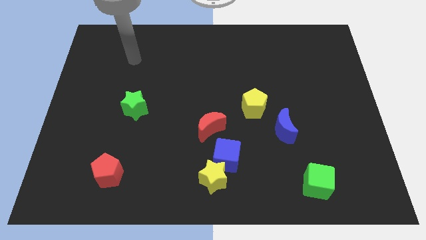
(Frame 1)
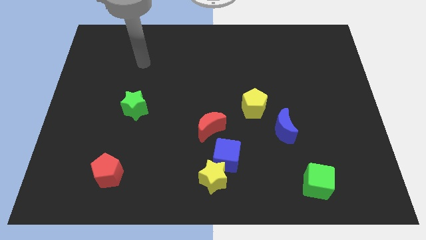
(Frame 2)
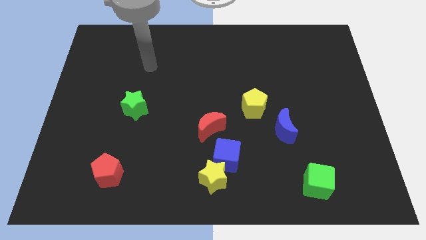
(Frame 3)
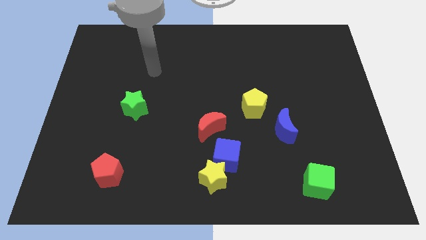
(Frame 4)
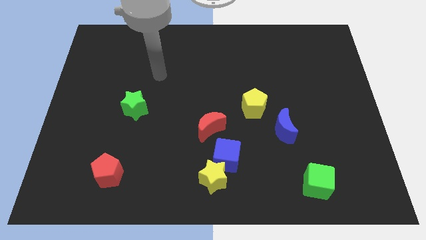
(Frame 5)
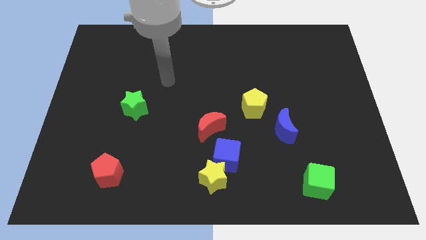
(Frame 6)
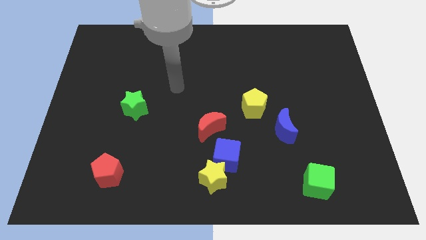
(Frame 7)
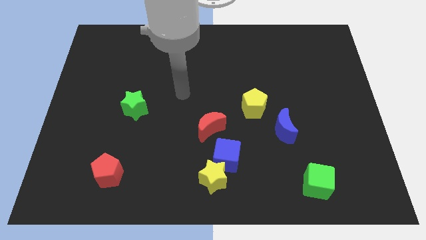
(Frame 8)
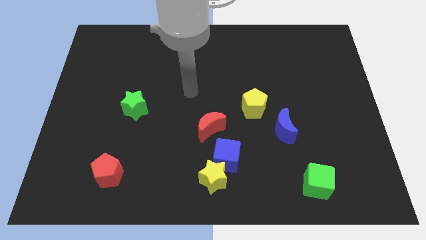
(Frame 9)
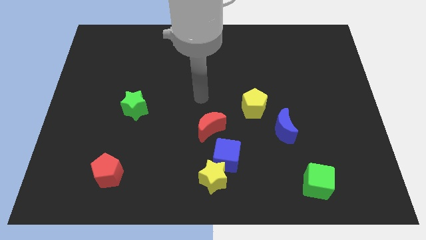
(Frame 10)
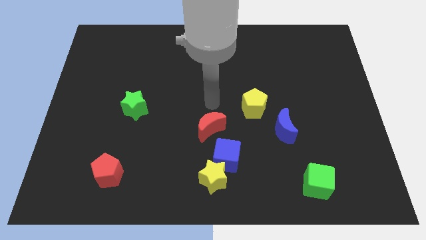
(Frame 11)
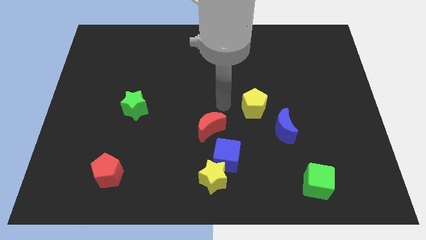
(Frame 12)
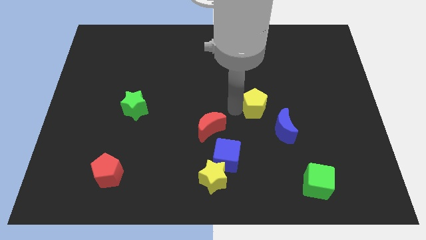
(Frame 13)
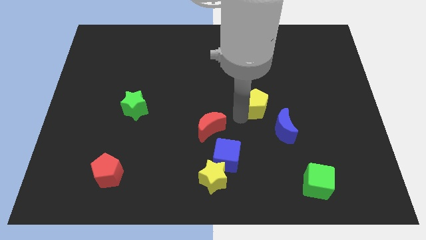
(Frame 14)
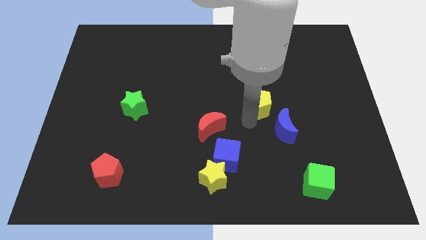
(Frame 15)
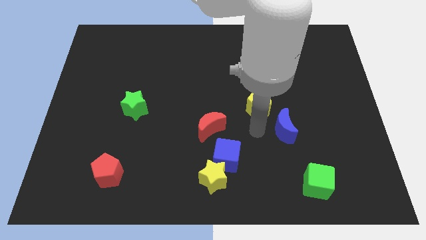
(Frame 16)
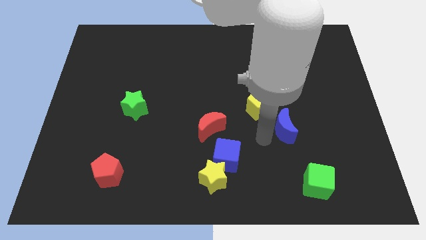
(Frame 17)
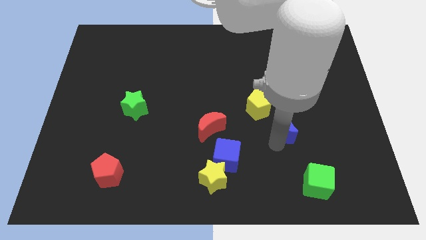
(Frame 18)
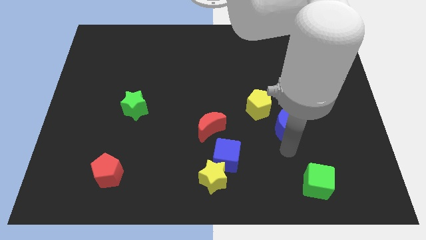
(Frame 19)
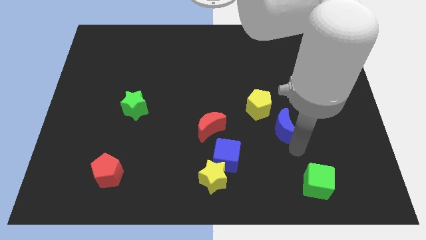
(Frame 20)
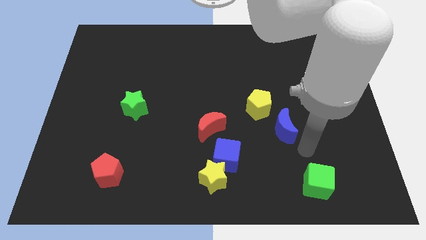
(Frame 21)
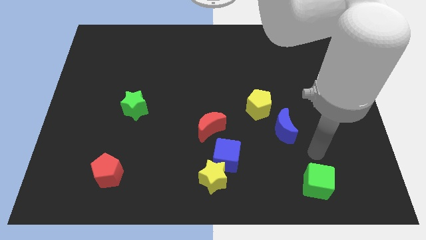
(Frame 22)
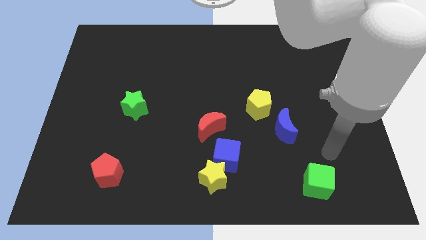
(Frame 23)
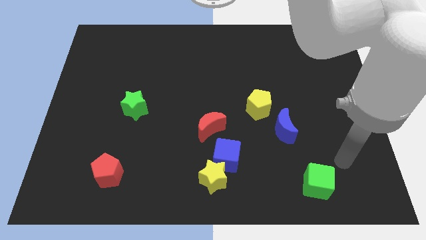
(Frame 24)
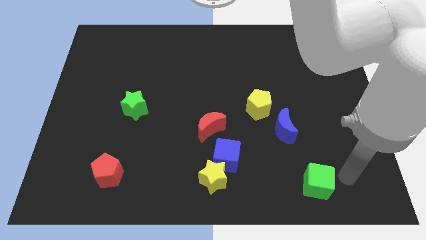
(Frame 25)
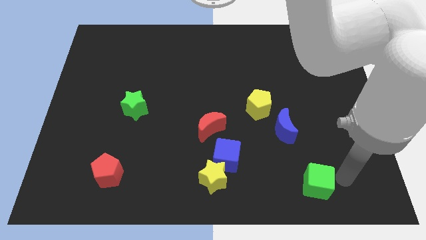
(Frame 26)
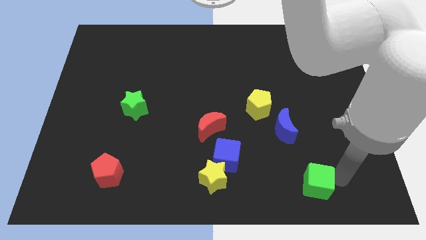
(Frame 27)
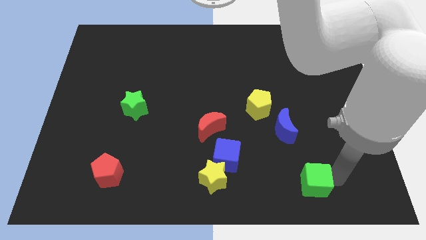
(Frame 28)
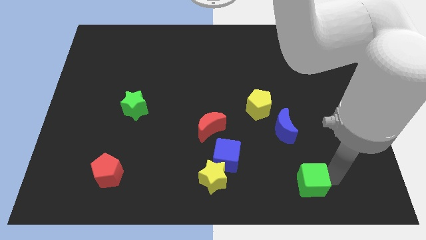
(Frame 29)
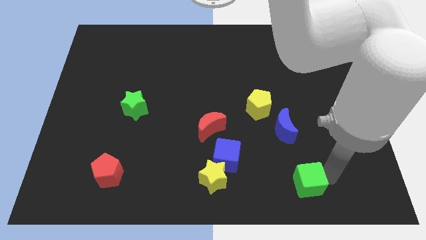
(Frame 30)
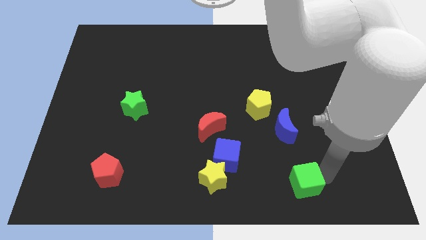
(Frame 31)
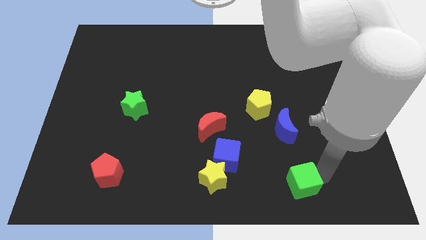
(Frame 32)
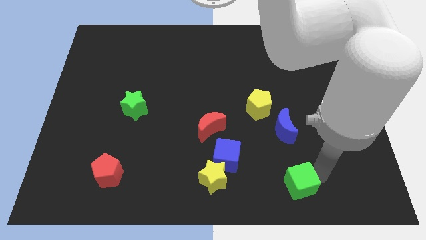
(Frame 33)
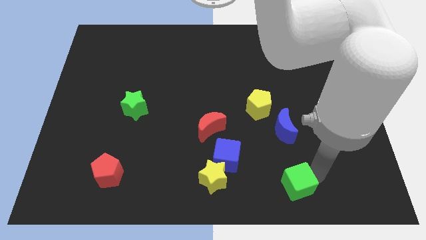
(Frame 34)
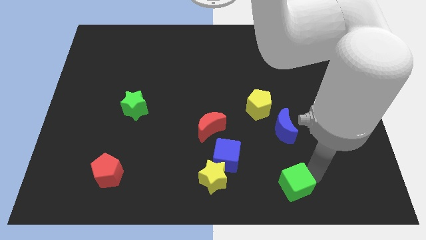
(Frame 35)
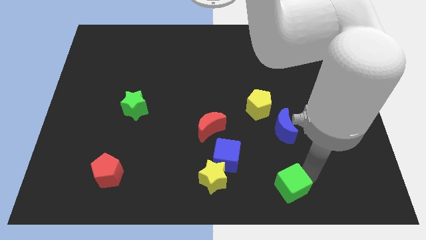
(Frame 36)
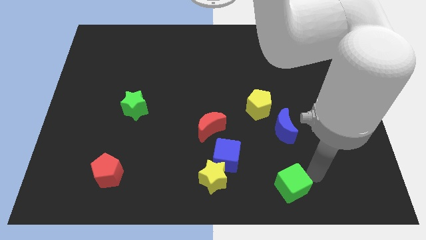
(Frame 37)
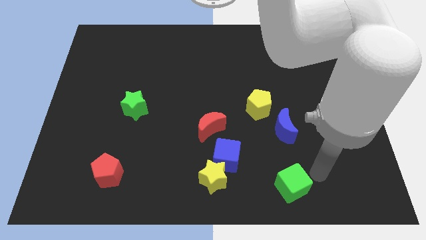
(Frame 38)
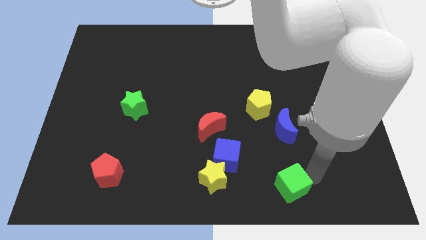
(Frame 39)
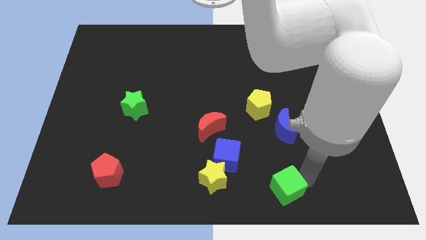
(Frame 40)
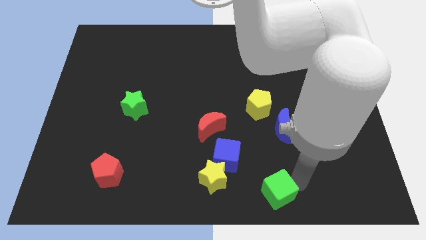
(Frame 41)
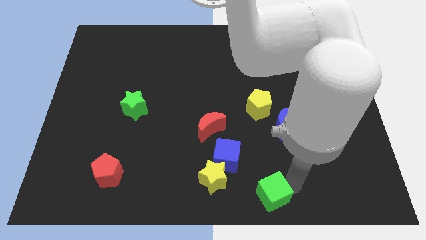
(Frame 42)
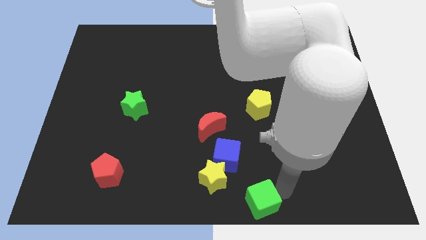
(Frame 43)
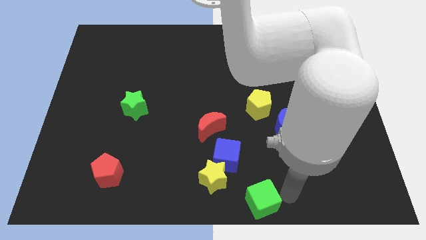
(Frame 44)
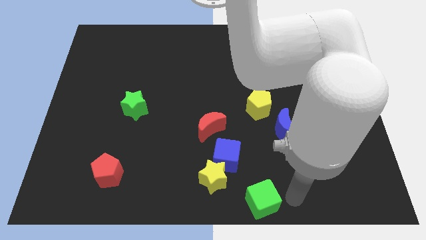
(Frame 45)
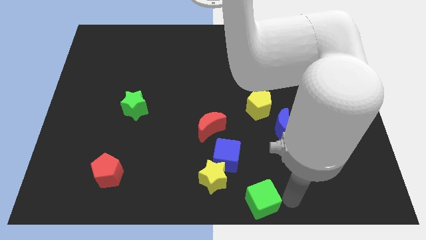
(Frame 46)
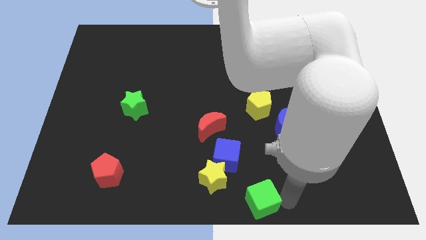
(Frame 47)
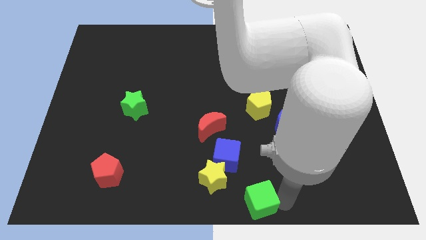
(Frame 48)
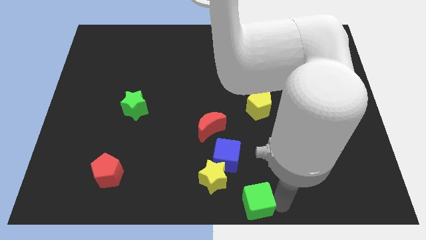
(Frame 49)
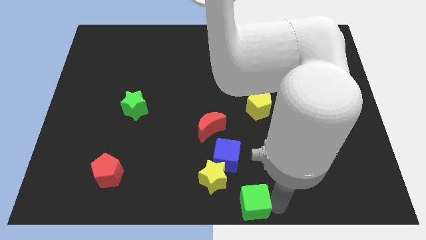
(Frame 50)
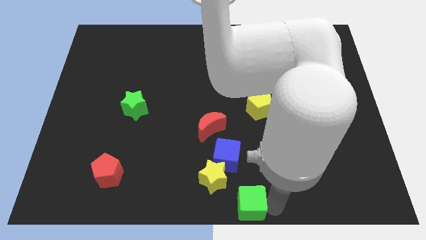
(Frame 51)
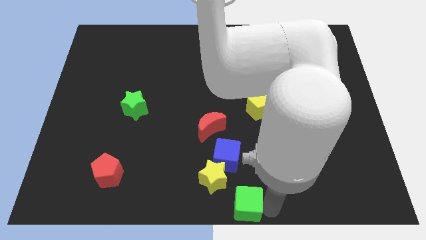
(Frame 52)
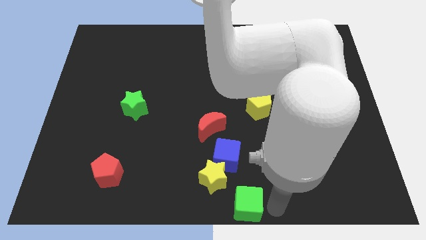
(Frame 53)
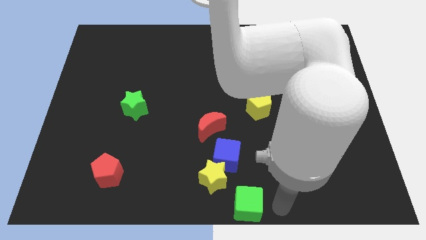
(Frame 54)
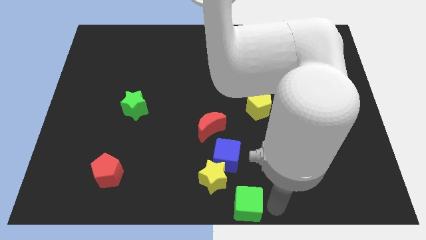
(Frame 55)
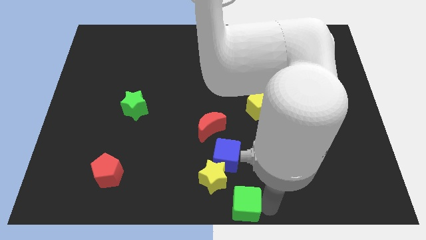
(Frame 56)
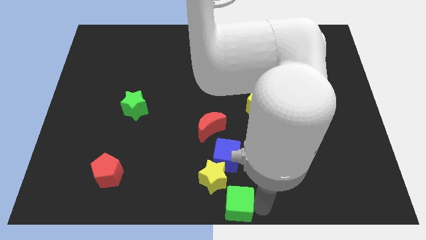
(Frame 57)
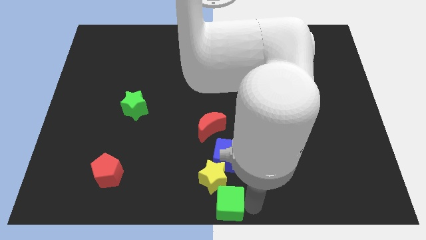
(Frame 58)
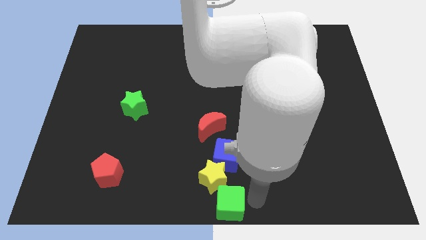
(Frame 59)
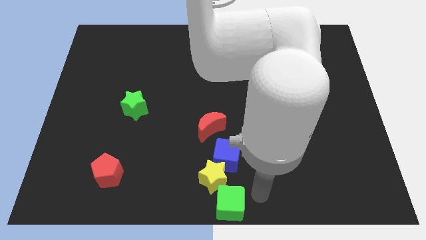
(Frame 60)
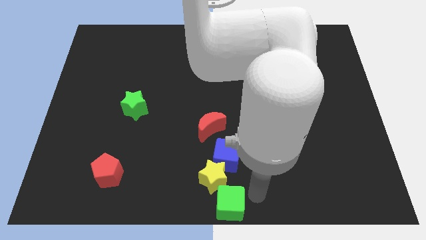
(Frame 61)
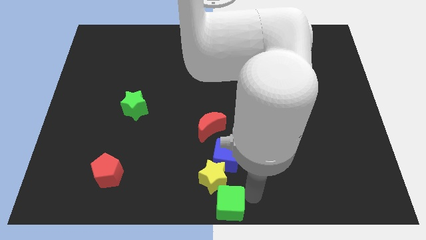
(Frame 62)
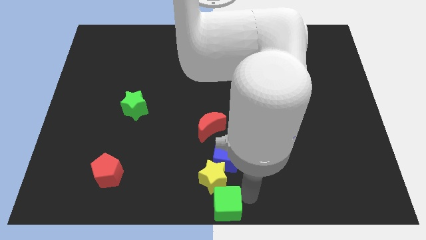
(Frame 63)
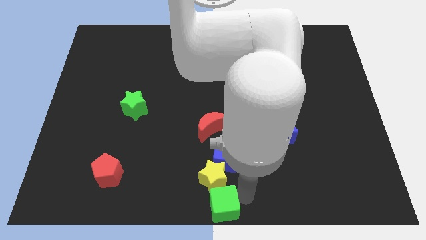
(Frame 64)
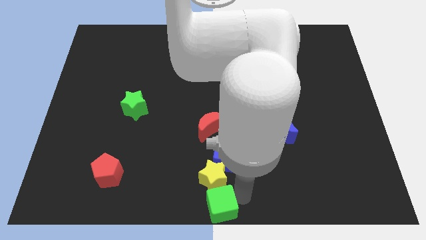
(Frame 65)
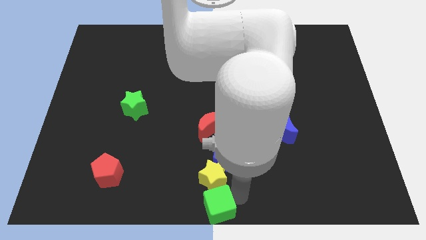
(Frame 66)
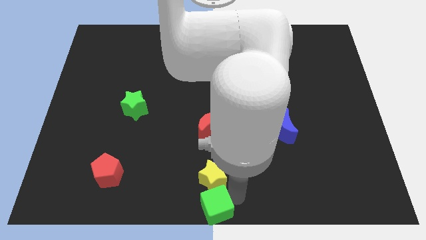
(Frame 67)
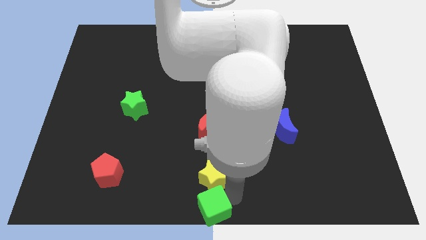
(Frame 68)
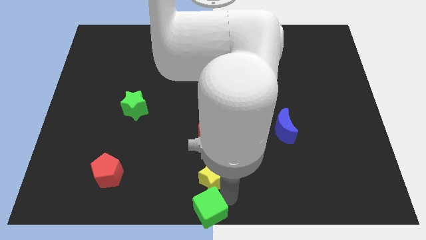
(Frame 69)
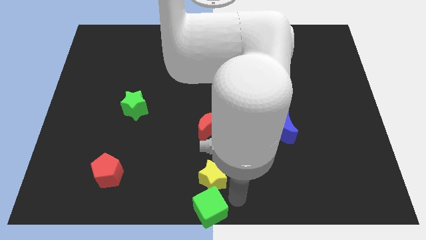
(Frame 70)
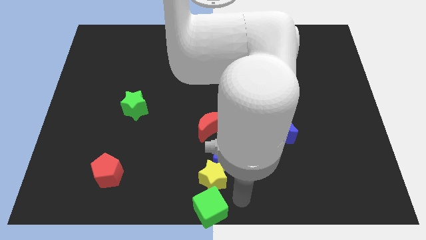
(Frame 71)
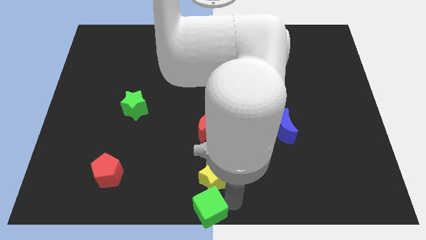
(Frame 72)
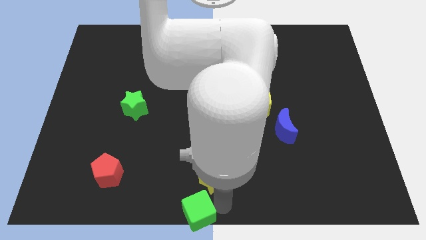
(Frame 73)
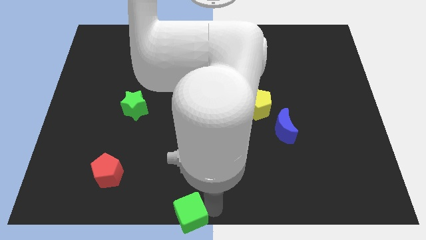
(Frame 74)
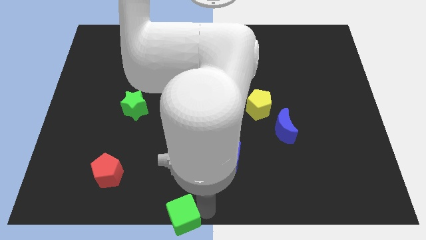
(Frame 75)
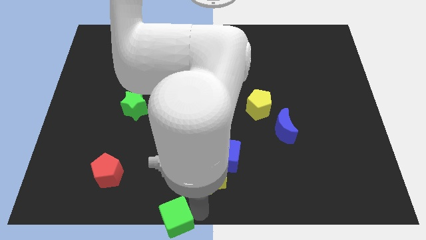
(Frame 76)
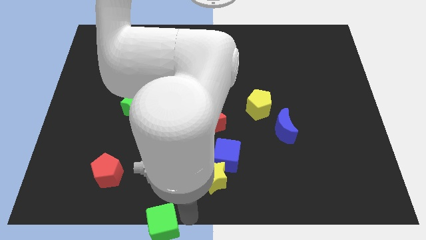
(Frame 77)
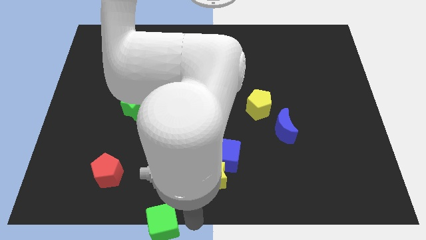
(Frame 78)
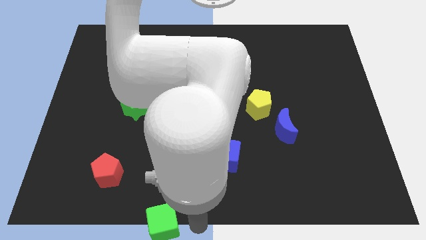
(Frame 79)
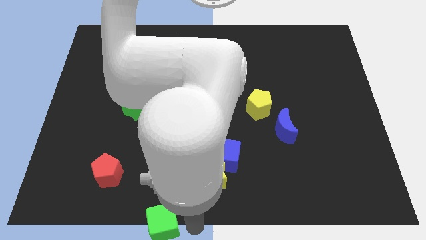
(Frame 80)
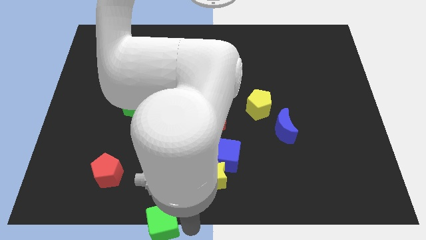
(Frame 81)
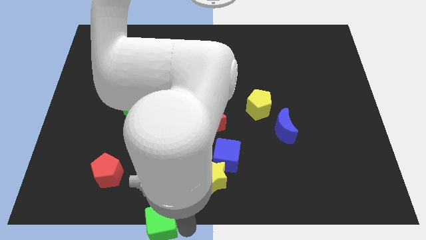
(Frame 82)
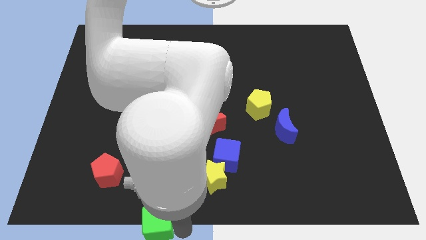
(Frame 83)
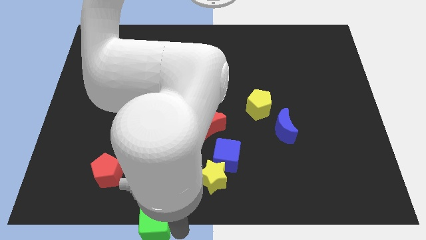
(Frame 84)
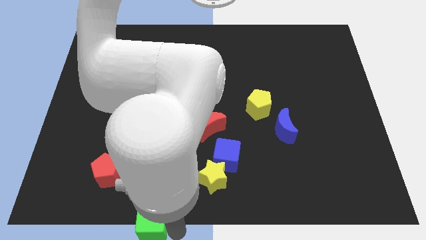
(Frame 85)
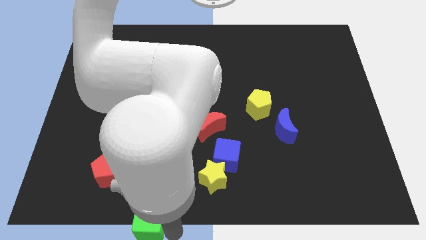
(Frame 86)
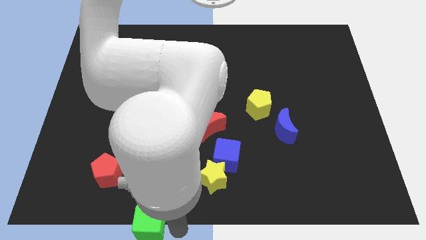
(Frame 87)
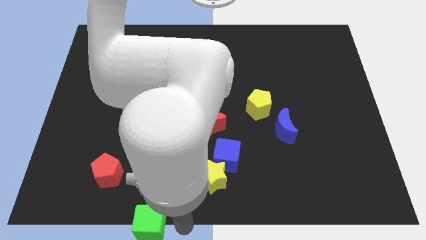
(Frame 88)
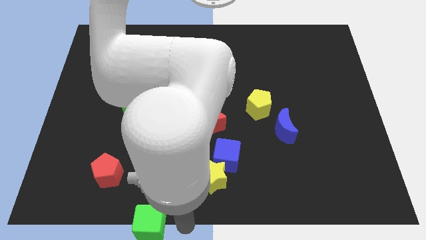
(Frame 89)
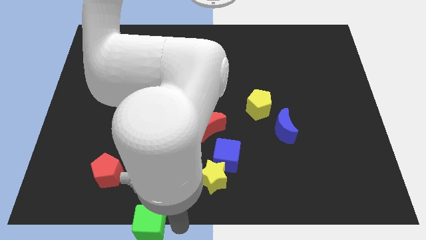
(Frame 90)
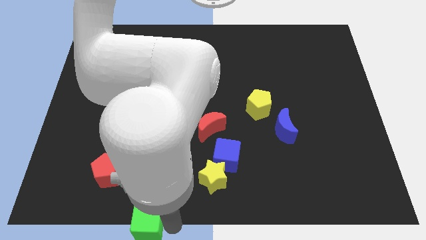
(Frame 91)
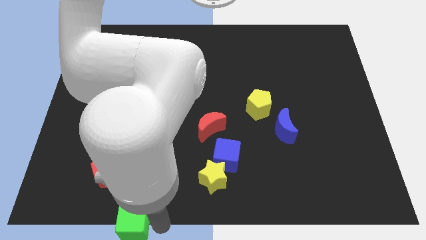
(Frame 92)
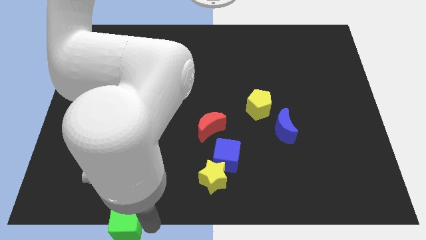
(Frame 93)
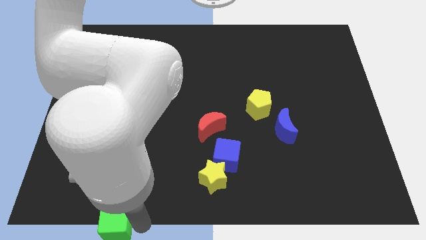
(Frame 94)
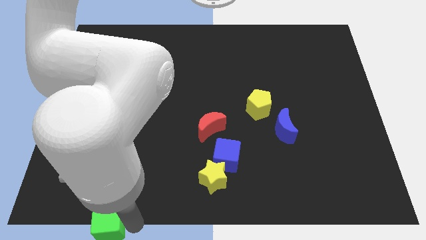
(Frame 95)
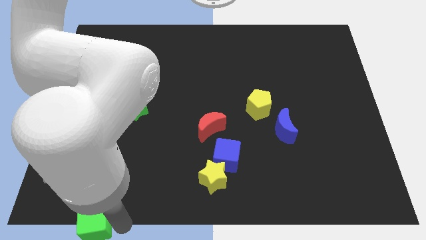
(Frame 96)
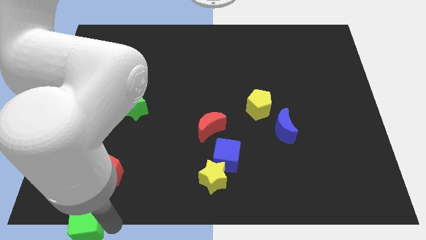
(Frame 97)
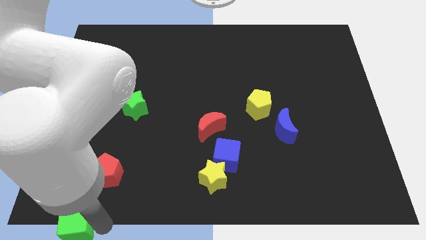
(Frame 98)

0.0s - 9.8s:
push the green cube to the bottom left corner
